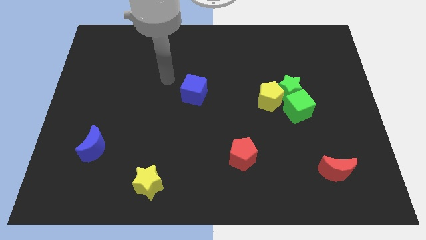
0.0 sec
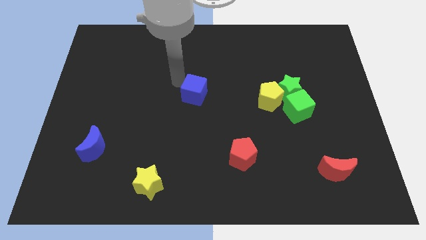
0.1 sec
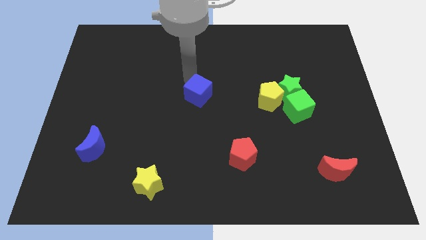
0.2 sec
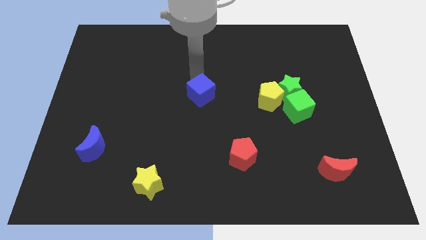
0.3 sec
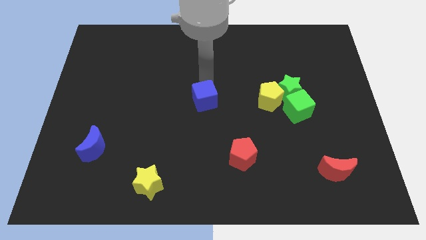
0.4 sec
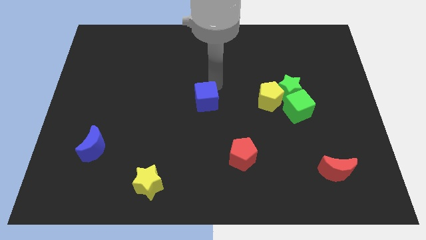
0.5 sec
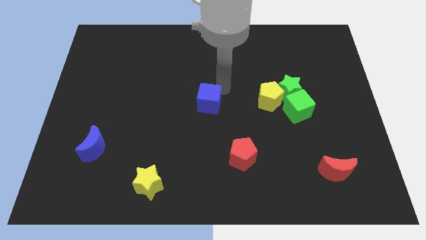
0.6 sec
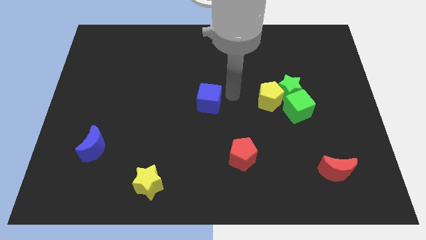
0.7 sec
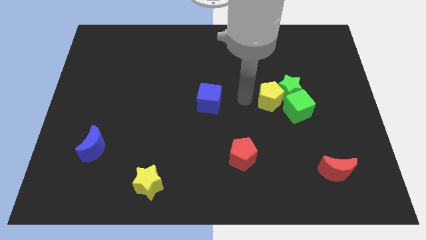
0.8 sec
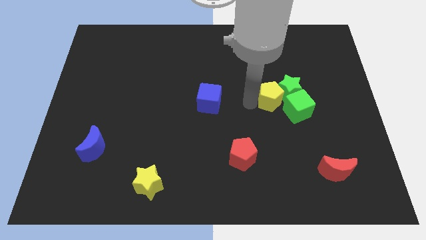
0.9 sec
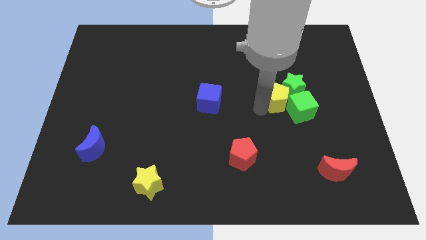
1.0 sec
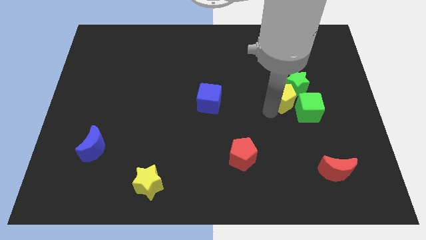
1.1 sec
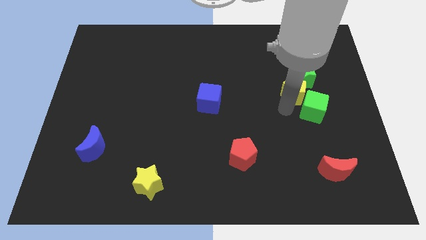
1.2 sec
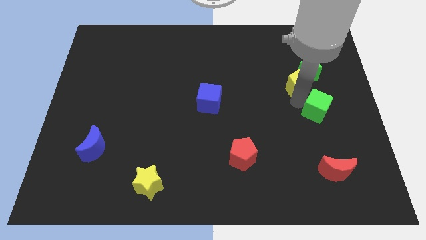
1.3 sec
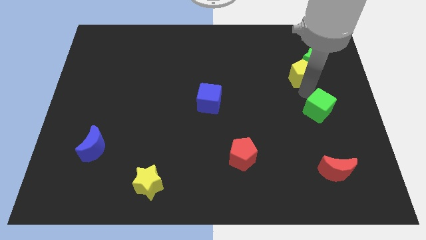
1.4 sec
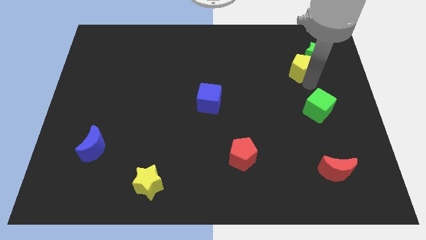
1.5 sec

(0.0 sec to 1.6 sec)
separate the green star from the green cube and yellow pentagon

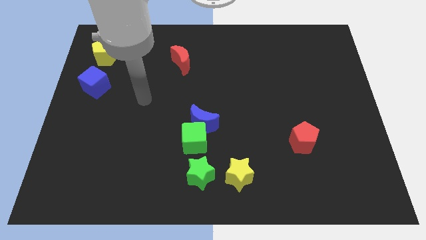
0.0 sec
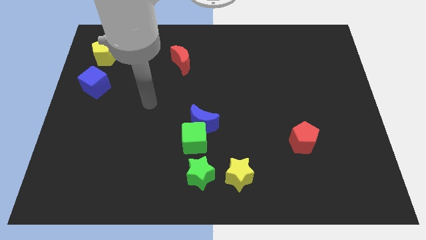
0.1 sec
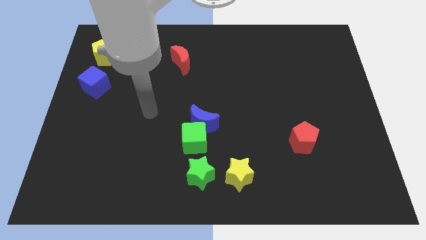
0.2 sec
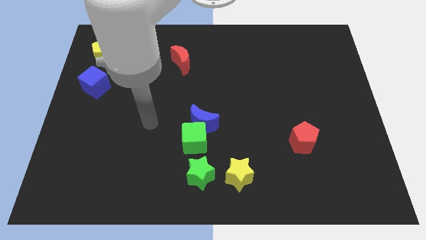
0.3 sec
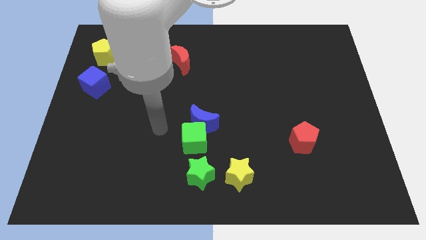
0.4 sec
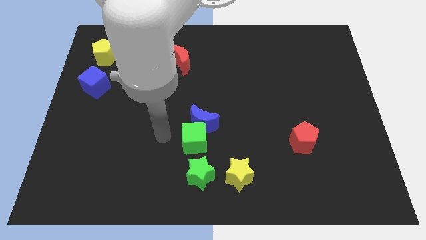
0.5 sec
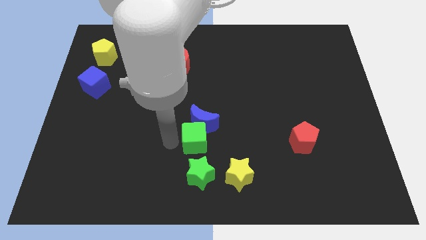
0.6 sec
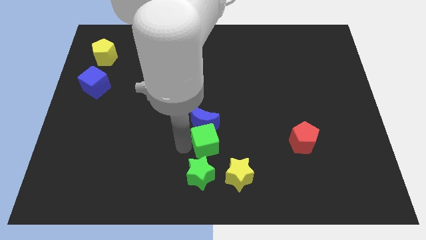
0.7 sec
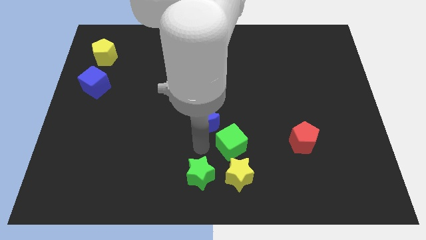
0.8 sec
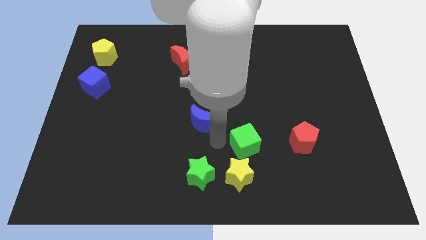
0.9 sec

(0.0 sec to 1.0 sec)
move the blue moon away from the green cube

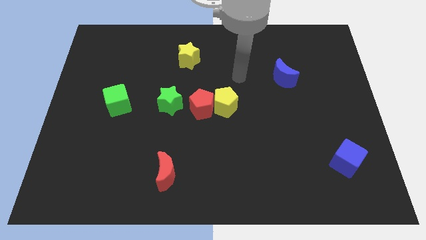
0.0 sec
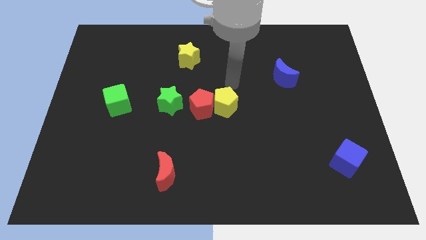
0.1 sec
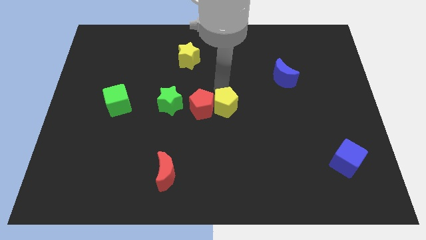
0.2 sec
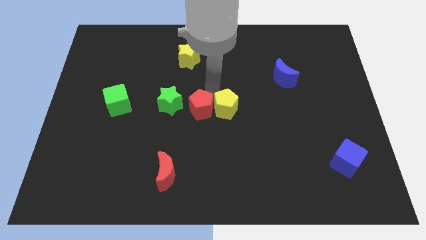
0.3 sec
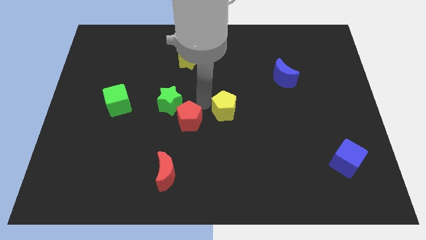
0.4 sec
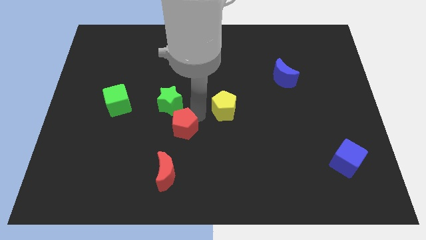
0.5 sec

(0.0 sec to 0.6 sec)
move the yellow pentagon away from the red pentagon

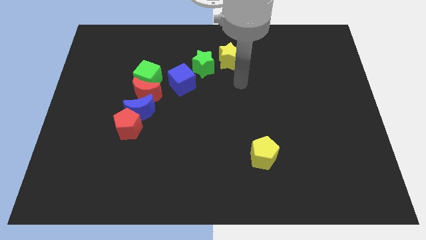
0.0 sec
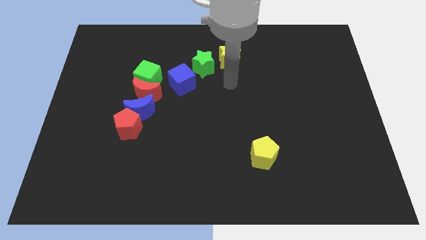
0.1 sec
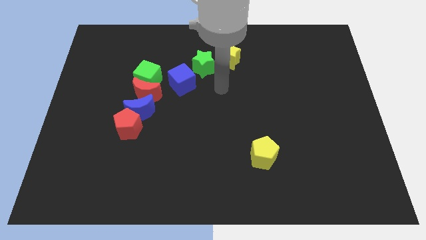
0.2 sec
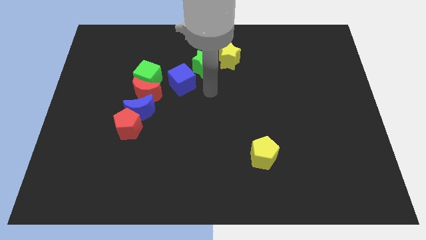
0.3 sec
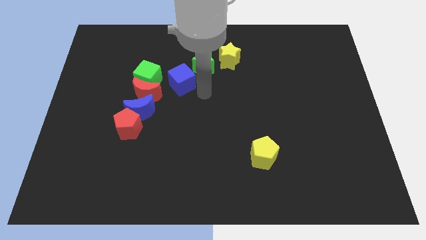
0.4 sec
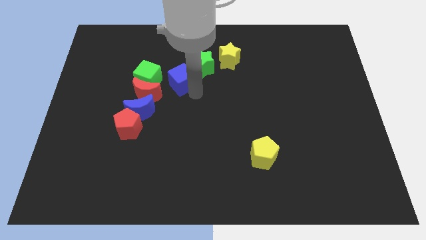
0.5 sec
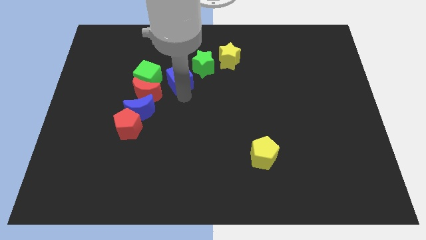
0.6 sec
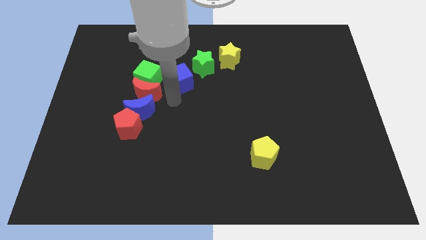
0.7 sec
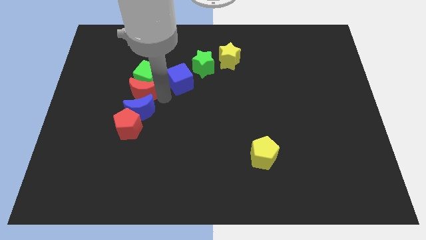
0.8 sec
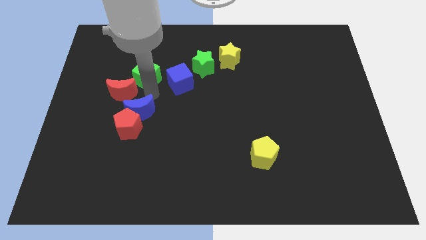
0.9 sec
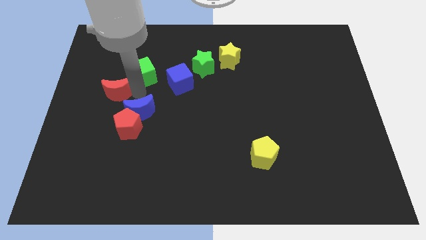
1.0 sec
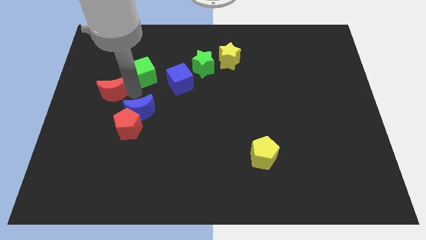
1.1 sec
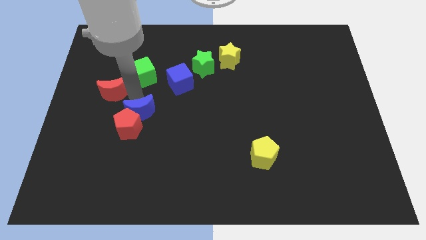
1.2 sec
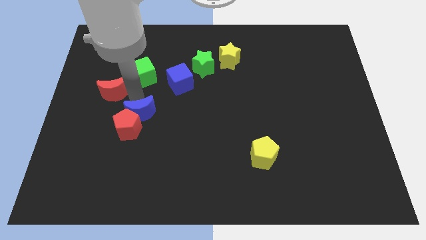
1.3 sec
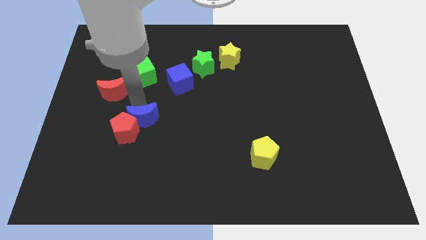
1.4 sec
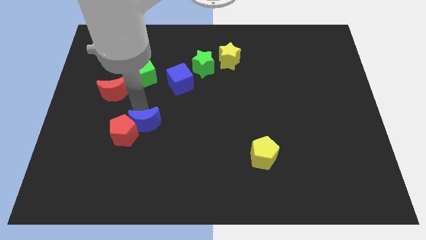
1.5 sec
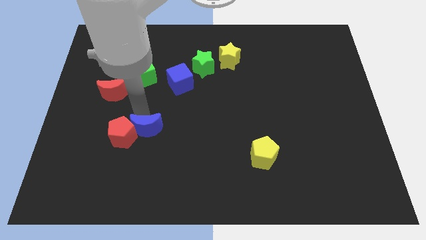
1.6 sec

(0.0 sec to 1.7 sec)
pull the blue moon apart from the group of blocks

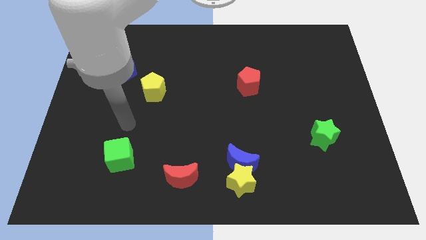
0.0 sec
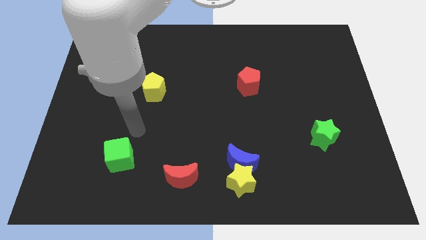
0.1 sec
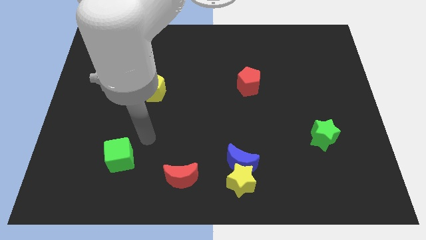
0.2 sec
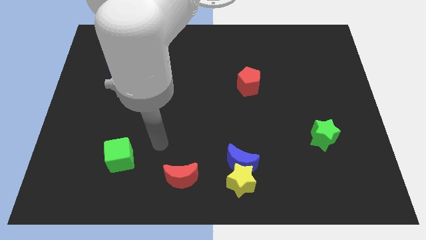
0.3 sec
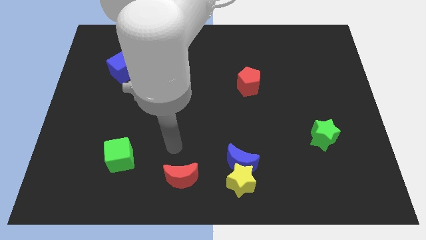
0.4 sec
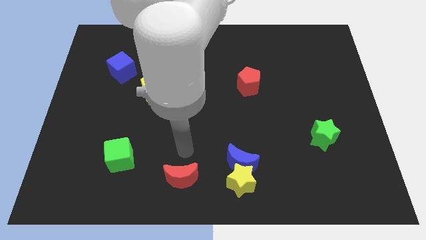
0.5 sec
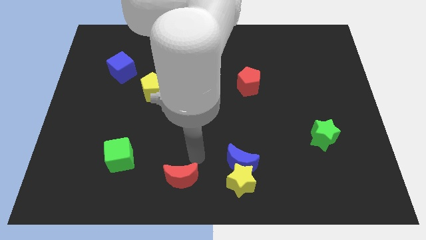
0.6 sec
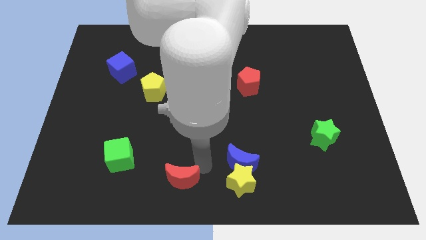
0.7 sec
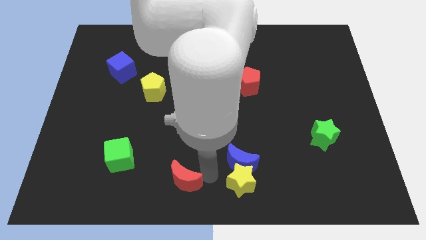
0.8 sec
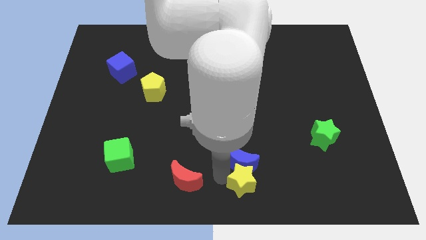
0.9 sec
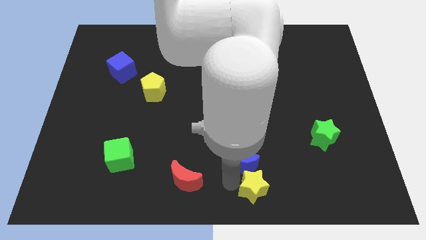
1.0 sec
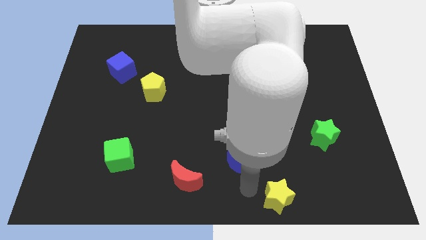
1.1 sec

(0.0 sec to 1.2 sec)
separate the blue moon from the yellow star

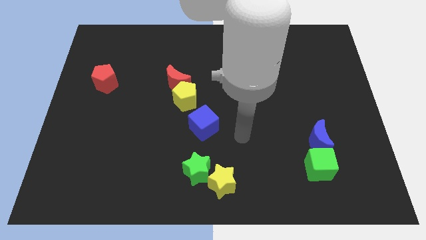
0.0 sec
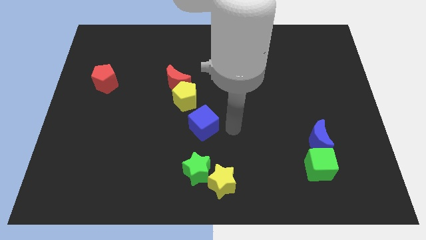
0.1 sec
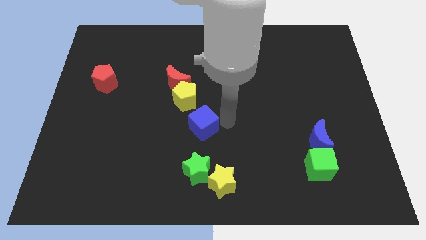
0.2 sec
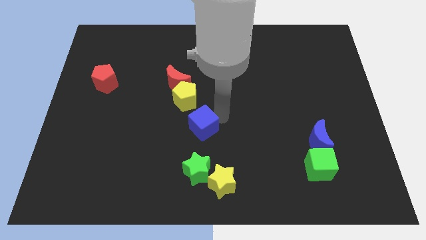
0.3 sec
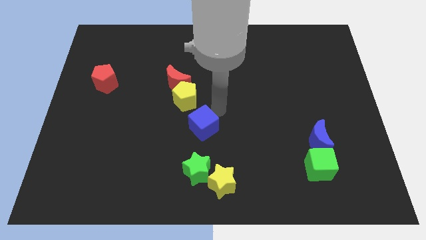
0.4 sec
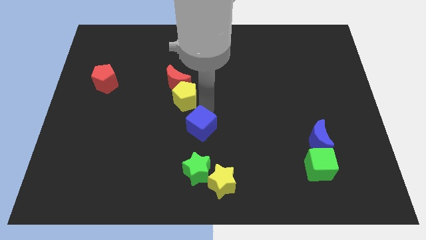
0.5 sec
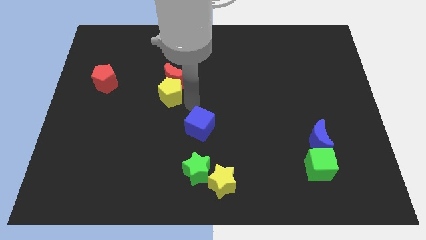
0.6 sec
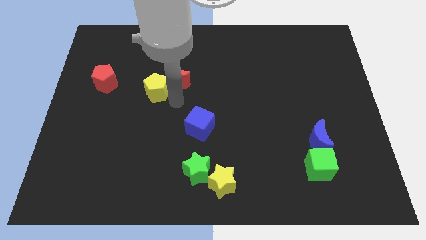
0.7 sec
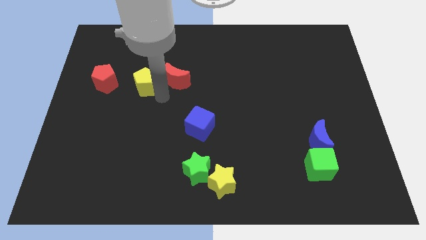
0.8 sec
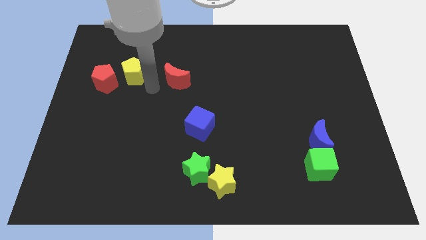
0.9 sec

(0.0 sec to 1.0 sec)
separate the red moon from the yellow pentagon

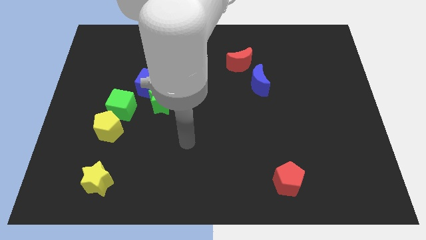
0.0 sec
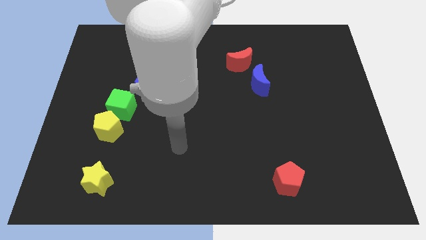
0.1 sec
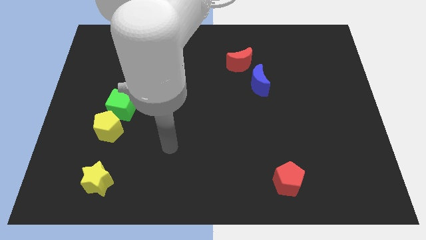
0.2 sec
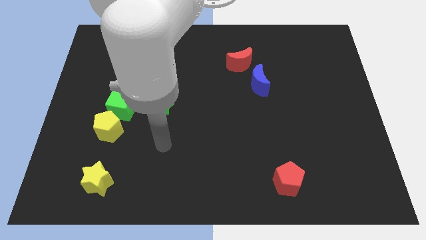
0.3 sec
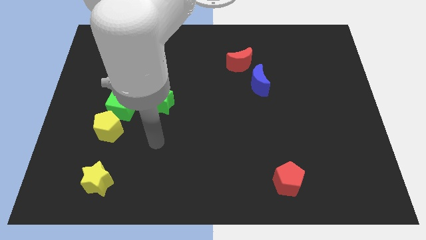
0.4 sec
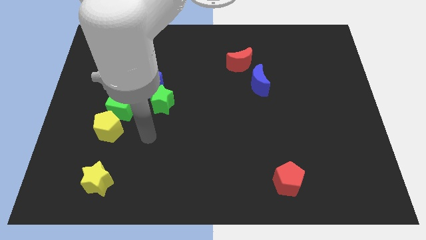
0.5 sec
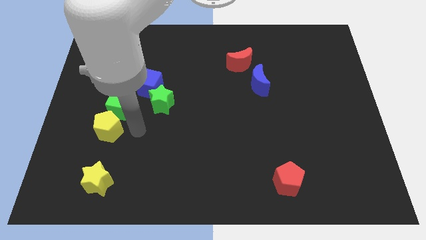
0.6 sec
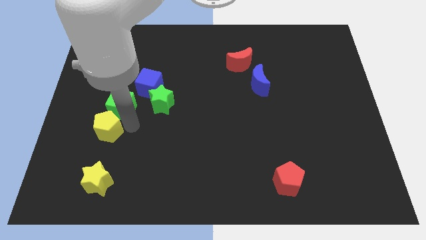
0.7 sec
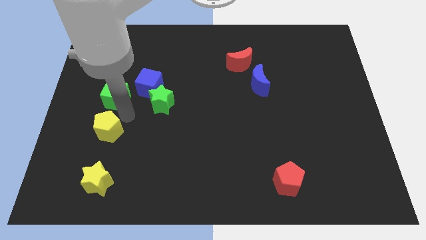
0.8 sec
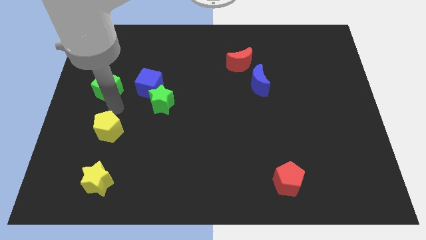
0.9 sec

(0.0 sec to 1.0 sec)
move the yellow pentagon away from the green cube

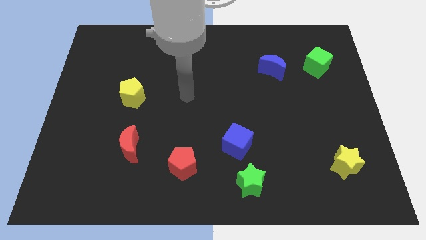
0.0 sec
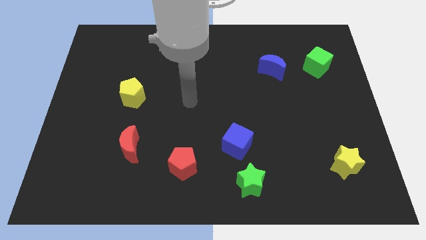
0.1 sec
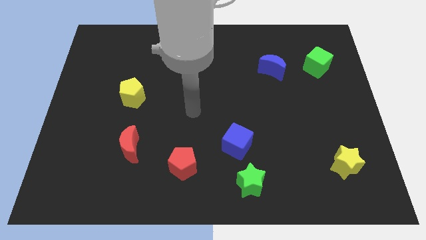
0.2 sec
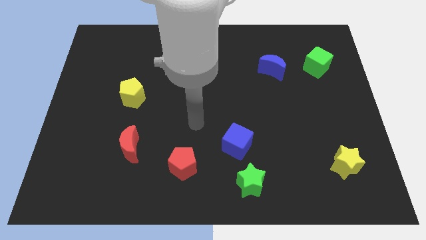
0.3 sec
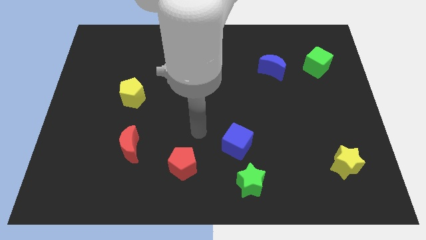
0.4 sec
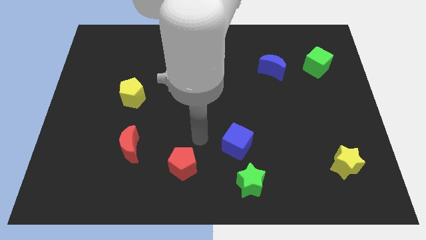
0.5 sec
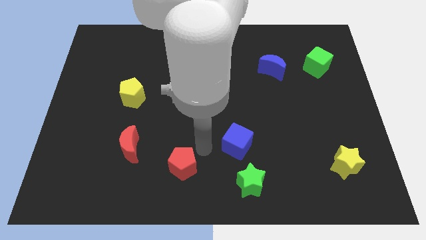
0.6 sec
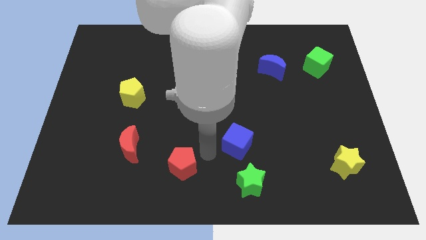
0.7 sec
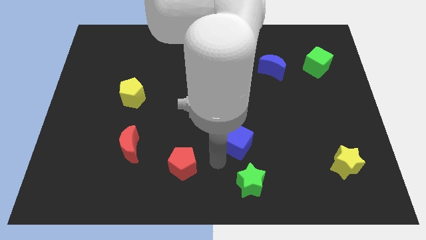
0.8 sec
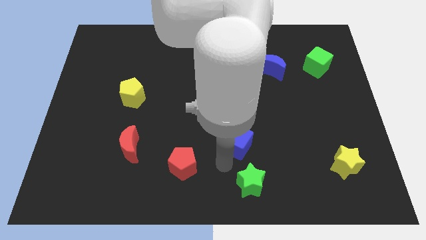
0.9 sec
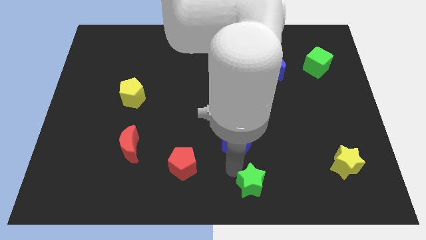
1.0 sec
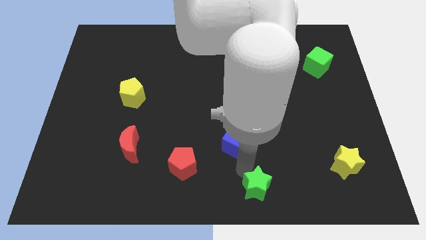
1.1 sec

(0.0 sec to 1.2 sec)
separate the blue cube from the green star
